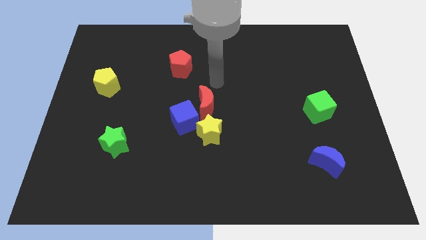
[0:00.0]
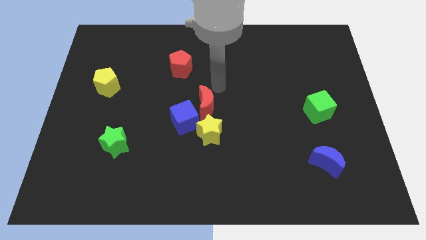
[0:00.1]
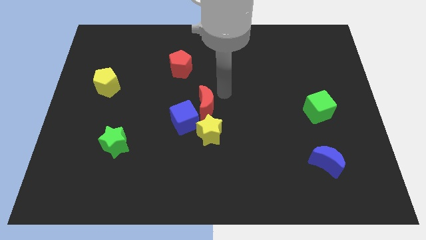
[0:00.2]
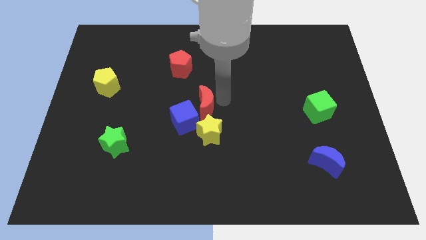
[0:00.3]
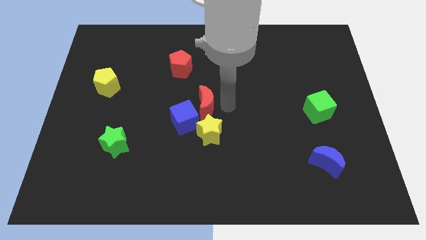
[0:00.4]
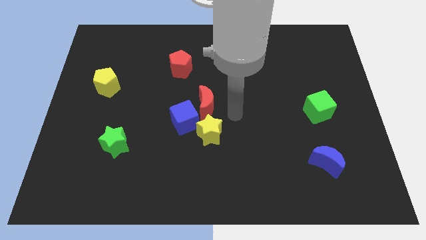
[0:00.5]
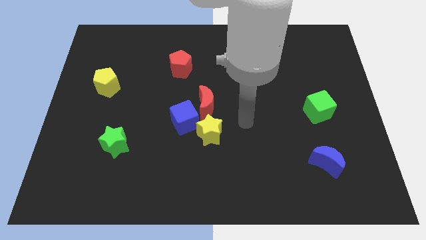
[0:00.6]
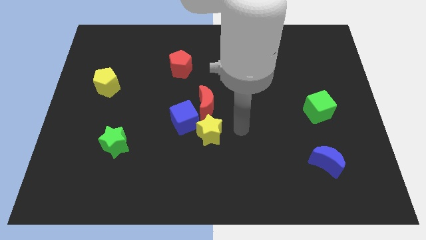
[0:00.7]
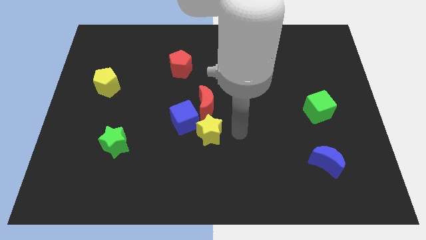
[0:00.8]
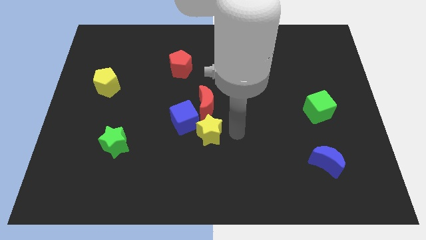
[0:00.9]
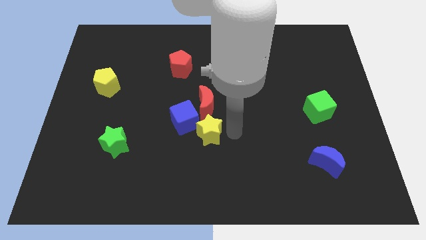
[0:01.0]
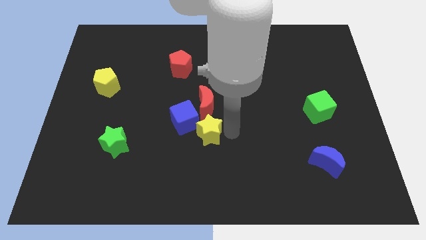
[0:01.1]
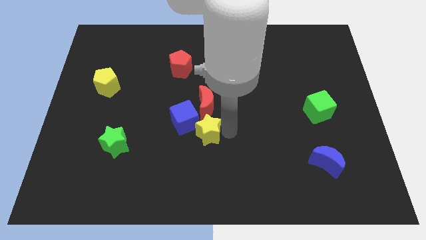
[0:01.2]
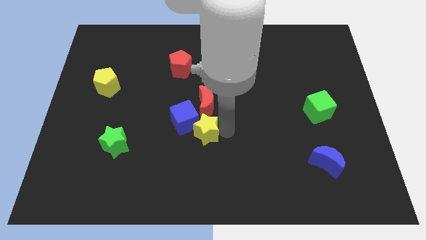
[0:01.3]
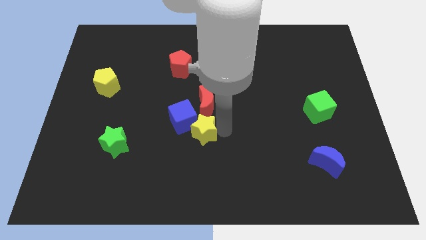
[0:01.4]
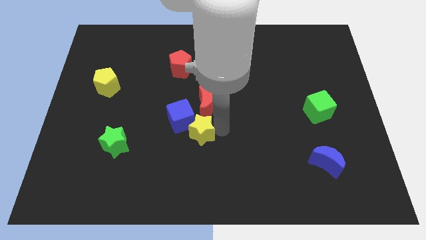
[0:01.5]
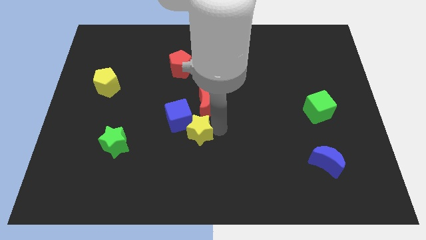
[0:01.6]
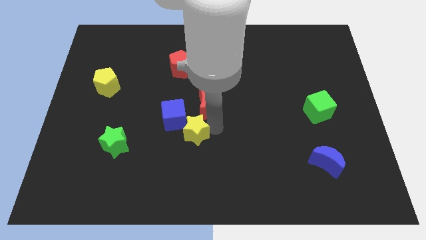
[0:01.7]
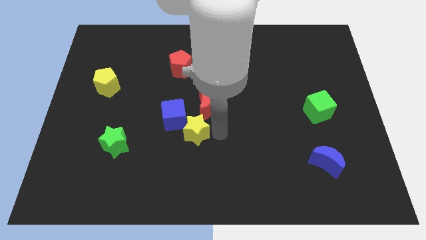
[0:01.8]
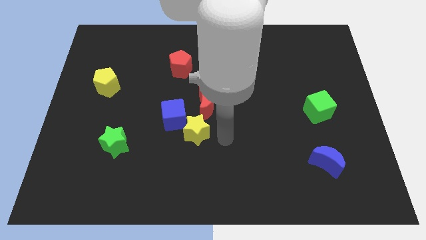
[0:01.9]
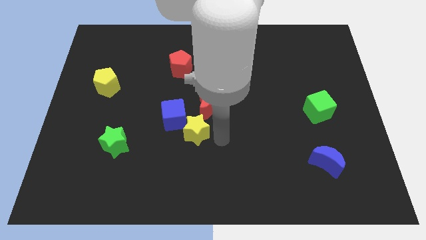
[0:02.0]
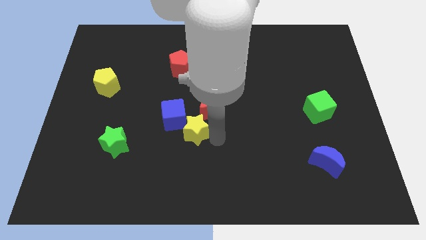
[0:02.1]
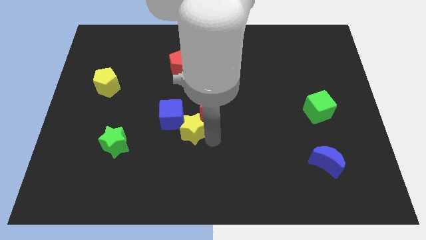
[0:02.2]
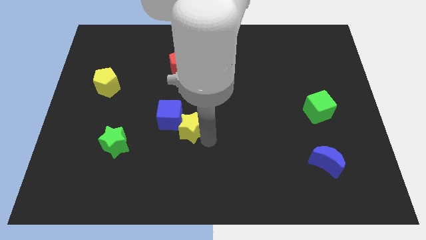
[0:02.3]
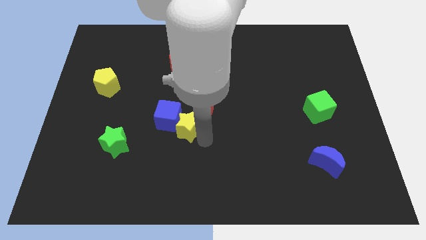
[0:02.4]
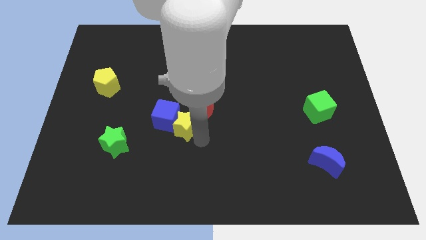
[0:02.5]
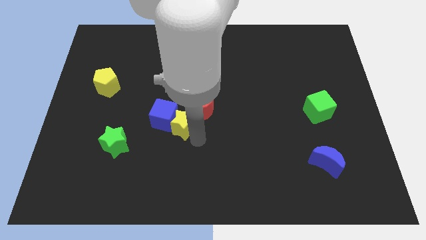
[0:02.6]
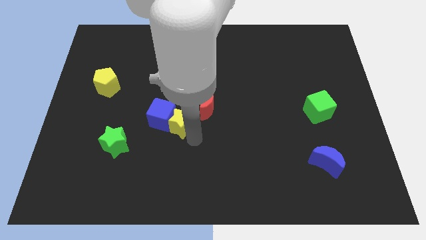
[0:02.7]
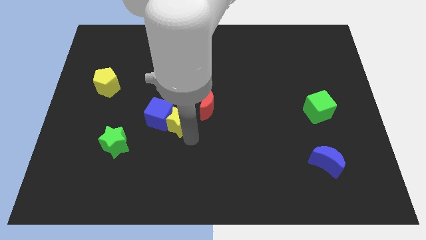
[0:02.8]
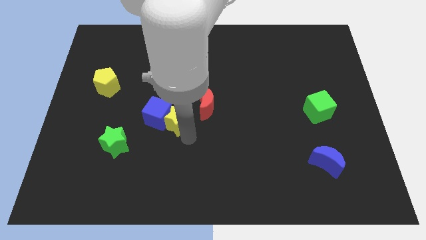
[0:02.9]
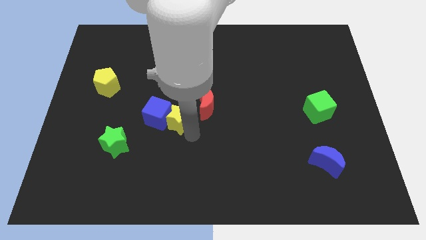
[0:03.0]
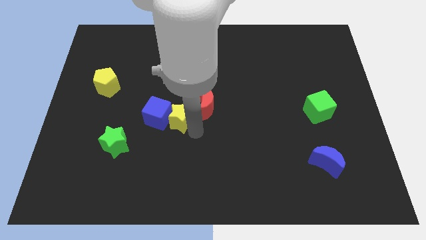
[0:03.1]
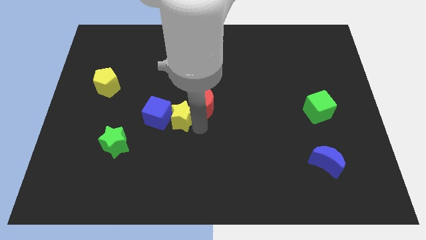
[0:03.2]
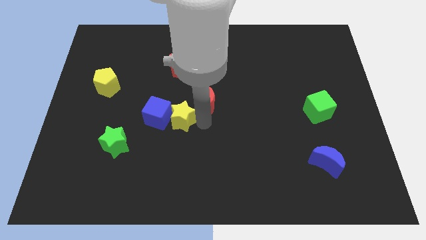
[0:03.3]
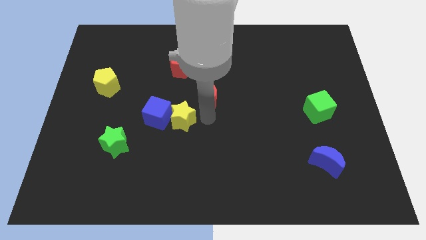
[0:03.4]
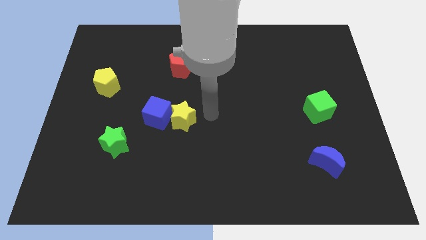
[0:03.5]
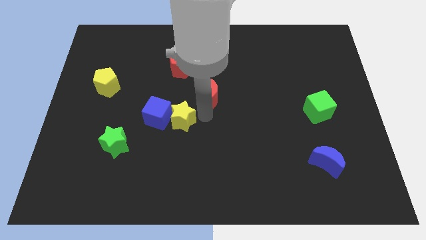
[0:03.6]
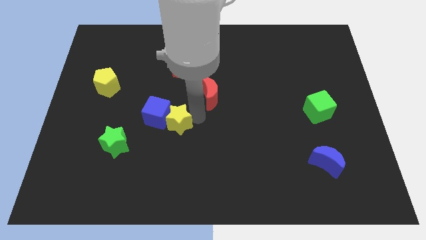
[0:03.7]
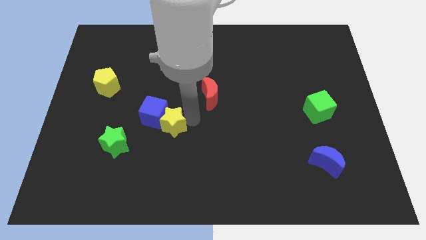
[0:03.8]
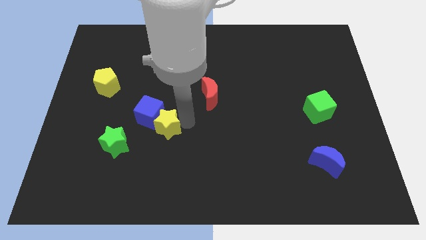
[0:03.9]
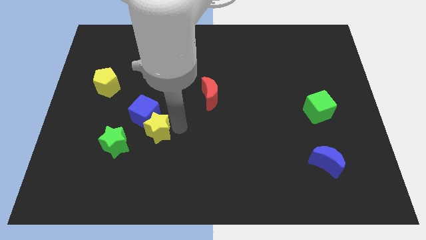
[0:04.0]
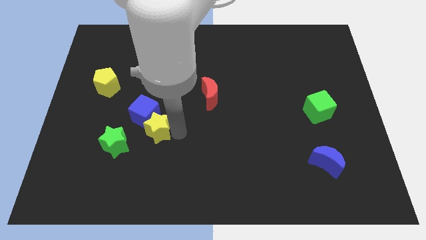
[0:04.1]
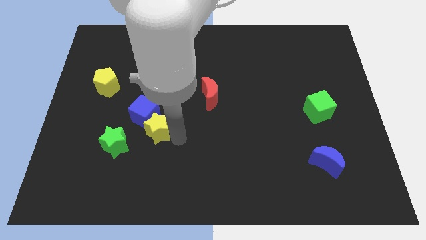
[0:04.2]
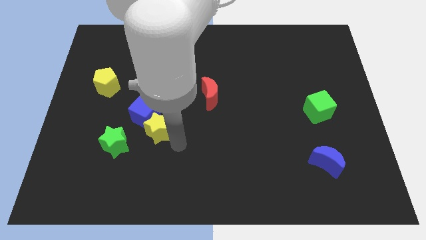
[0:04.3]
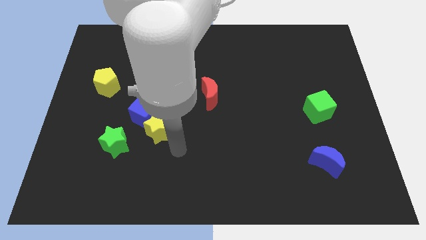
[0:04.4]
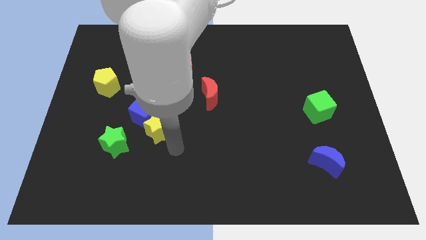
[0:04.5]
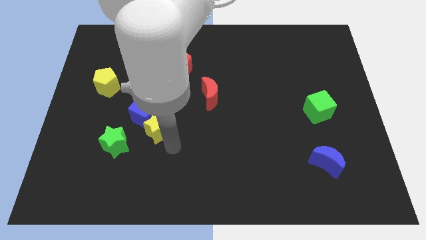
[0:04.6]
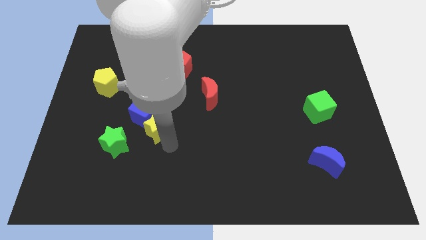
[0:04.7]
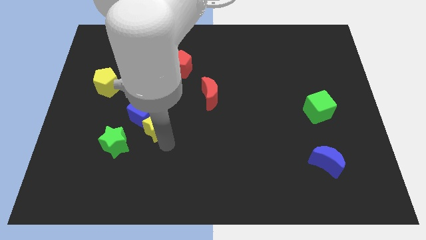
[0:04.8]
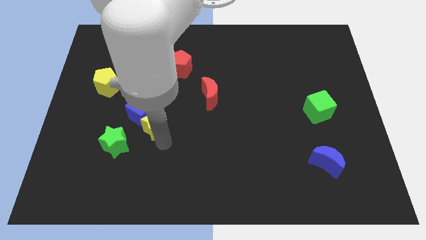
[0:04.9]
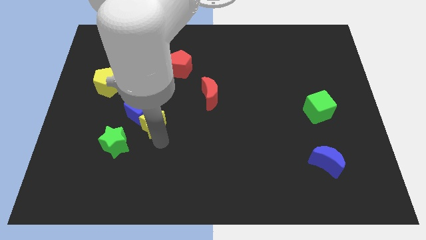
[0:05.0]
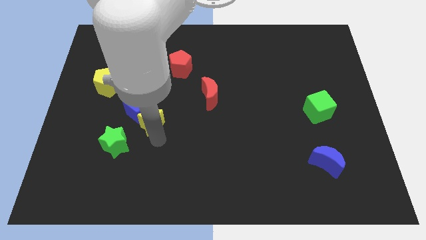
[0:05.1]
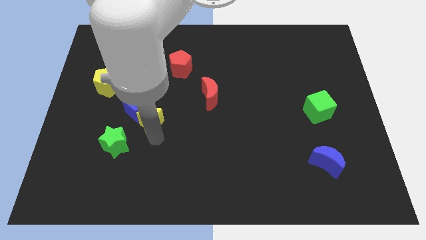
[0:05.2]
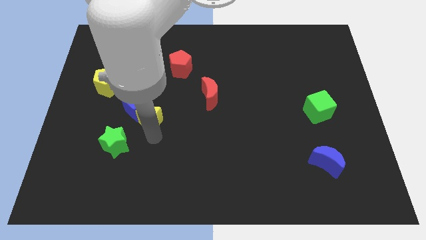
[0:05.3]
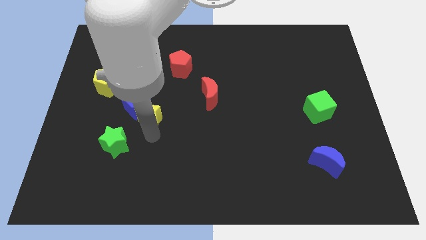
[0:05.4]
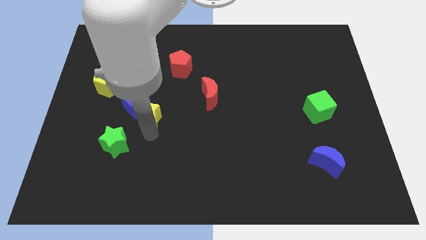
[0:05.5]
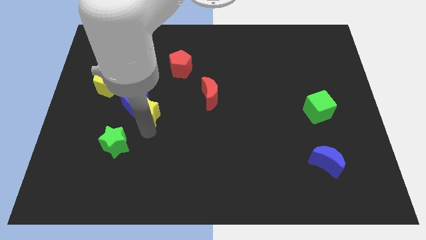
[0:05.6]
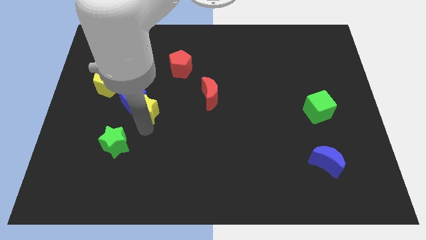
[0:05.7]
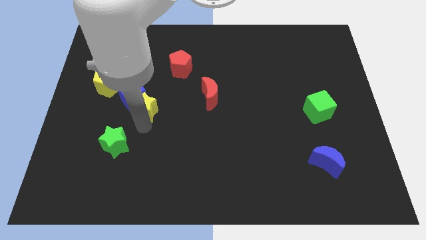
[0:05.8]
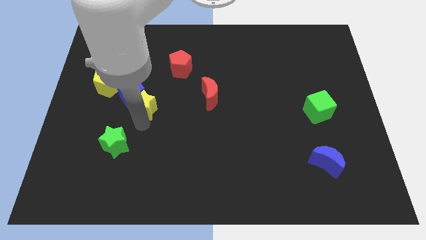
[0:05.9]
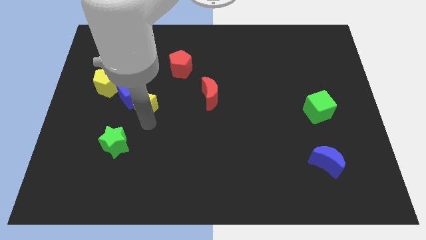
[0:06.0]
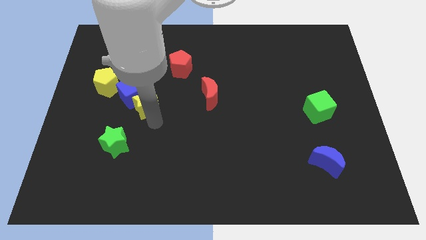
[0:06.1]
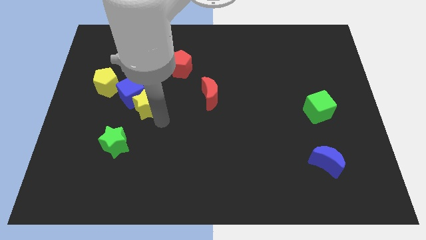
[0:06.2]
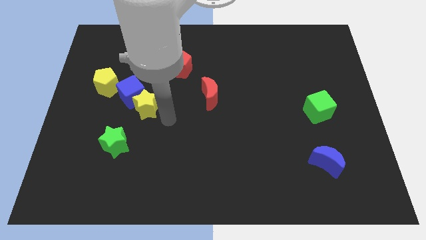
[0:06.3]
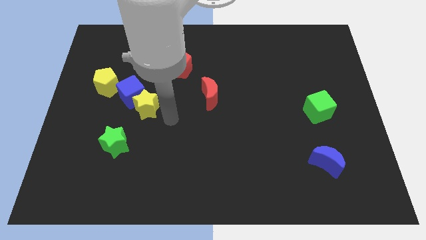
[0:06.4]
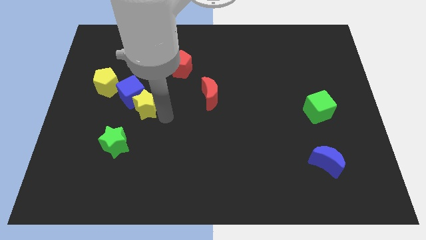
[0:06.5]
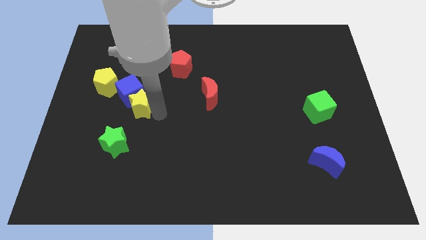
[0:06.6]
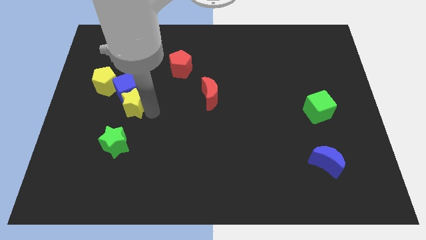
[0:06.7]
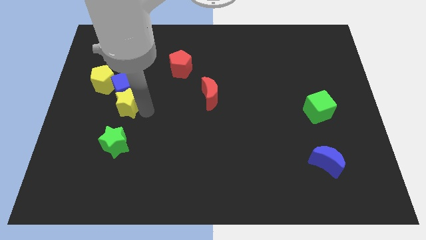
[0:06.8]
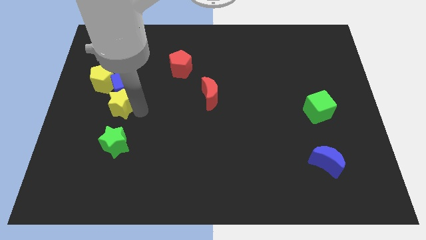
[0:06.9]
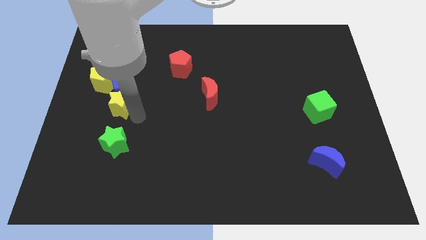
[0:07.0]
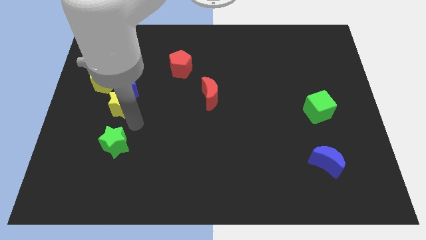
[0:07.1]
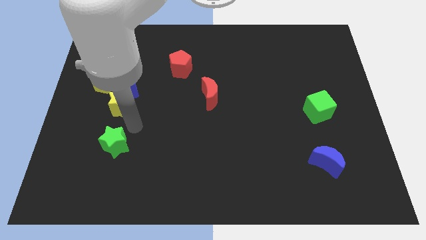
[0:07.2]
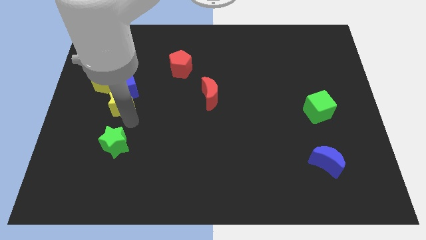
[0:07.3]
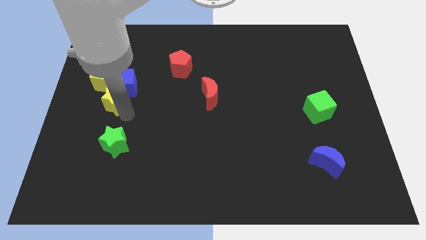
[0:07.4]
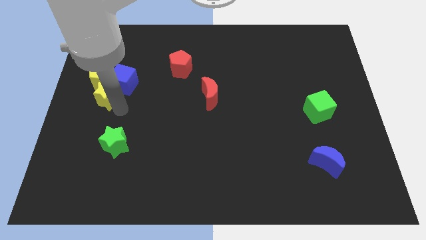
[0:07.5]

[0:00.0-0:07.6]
put the yellow star towards the yellow pentagon
